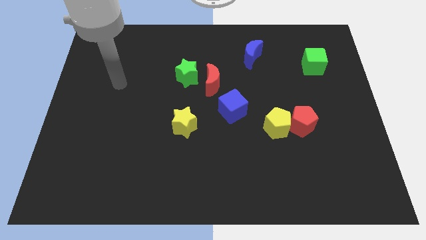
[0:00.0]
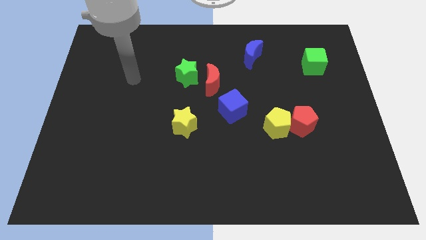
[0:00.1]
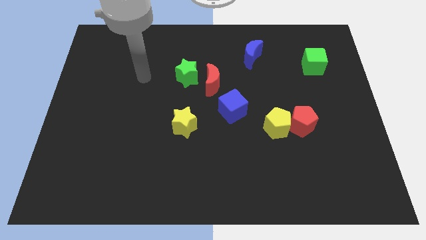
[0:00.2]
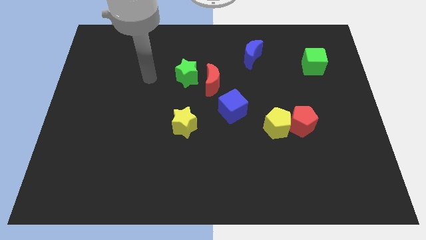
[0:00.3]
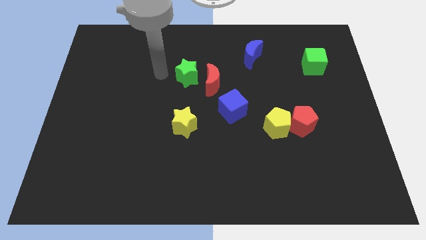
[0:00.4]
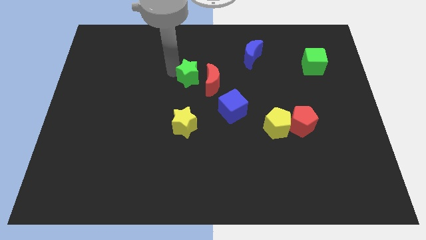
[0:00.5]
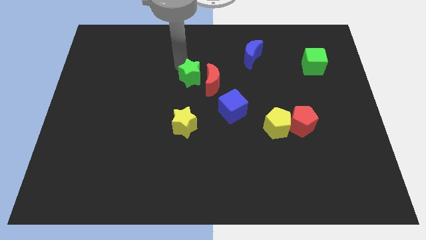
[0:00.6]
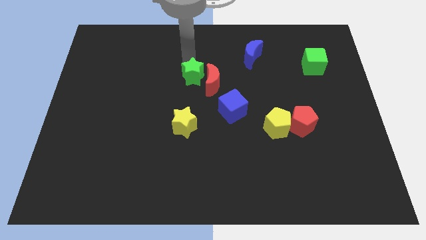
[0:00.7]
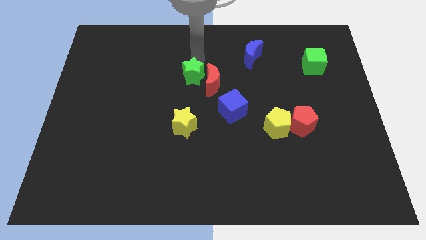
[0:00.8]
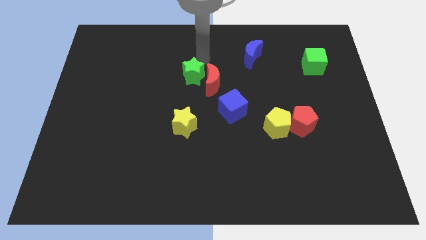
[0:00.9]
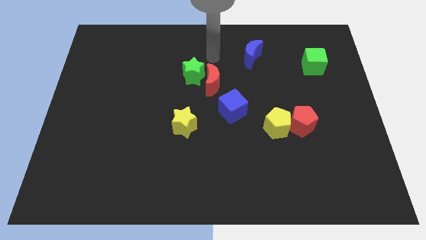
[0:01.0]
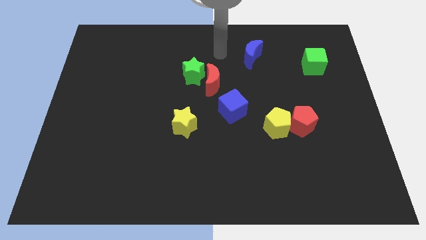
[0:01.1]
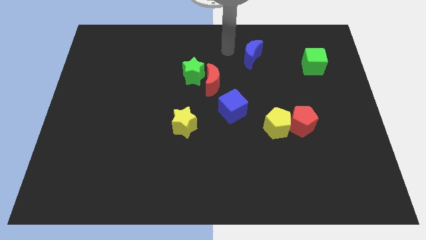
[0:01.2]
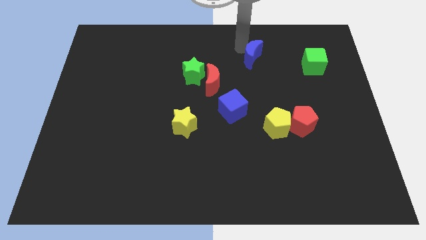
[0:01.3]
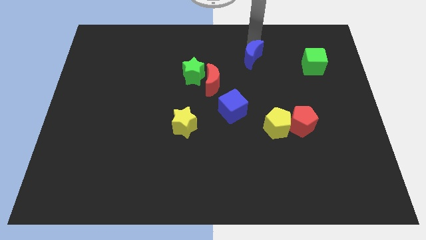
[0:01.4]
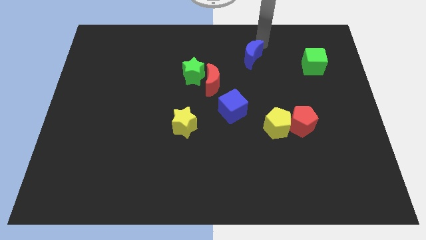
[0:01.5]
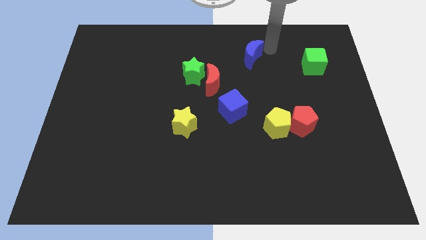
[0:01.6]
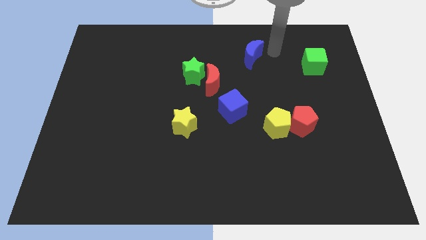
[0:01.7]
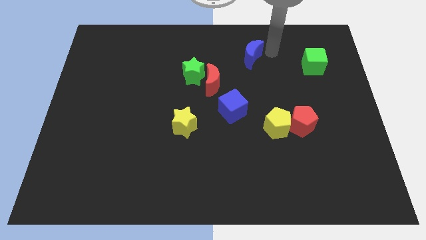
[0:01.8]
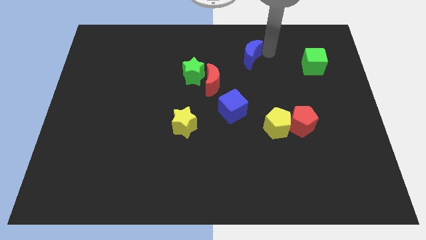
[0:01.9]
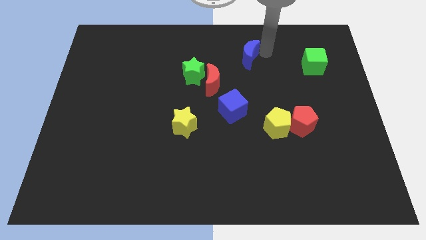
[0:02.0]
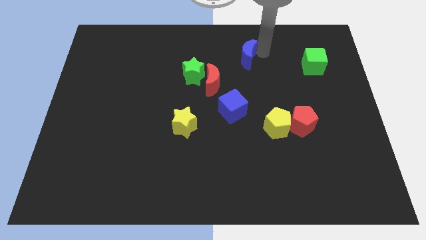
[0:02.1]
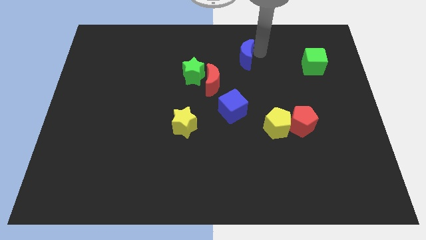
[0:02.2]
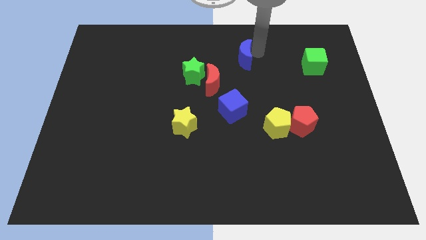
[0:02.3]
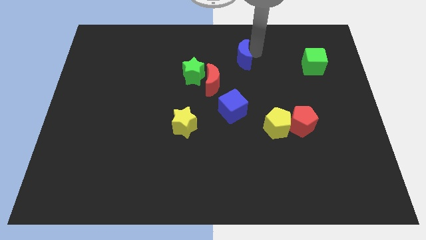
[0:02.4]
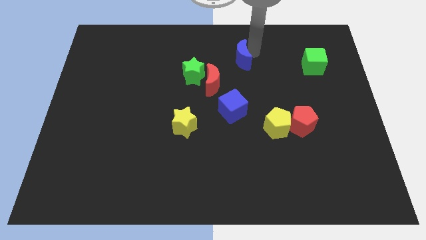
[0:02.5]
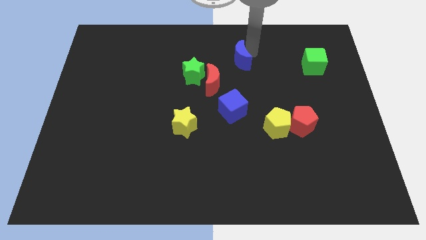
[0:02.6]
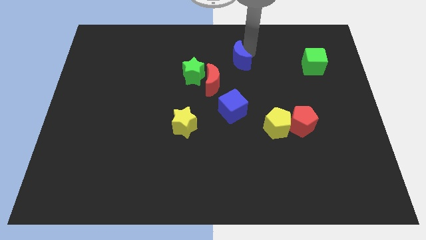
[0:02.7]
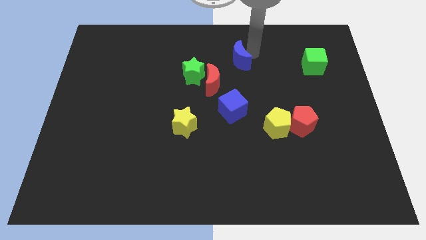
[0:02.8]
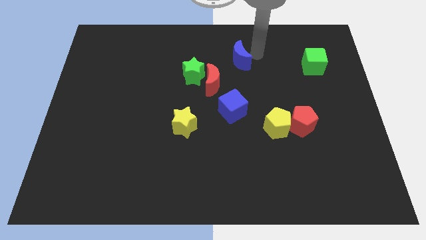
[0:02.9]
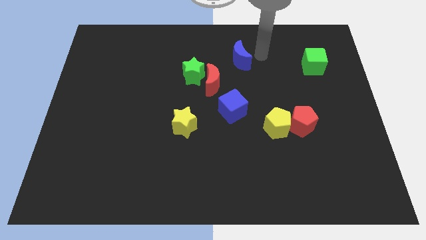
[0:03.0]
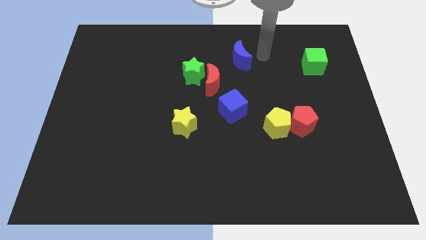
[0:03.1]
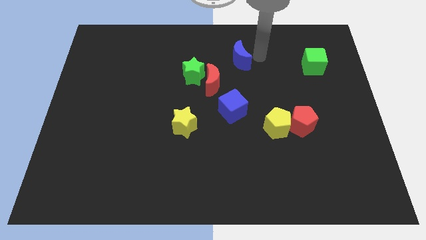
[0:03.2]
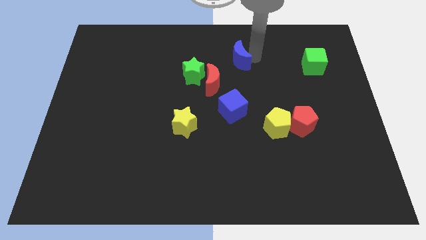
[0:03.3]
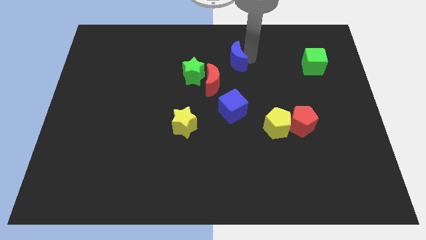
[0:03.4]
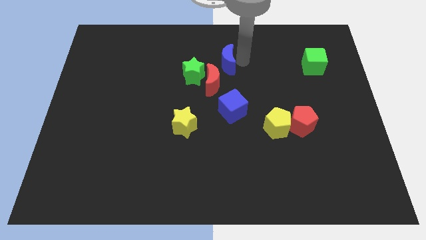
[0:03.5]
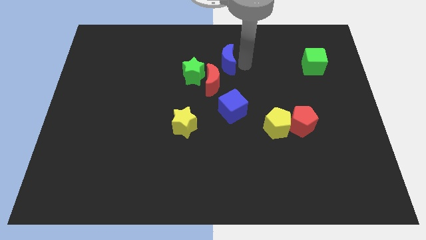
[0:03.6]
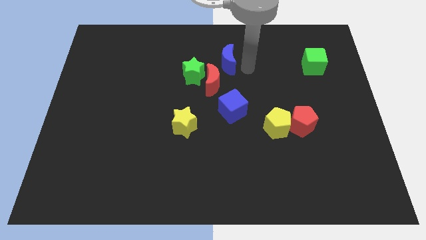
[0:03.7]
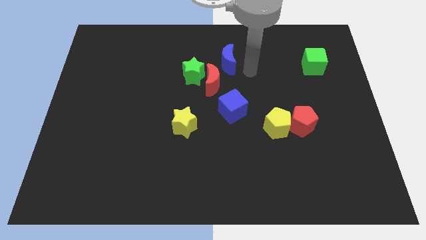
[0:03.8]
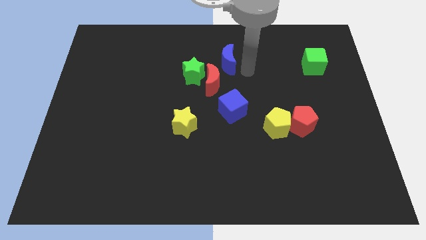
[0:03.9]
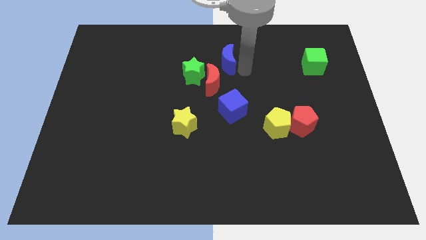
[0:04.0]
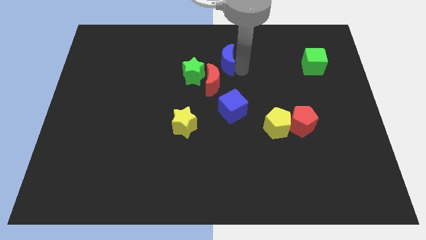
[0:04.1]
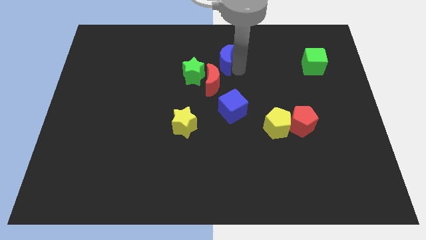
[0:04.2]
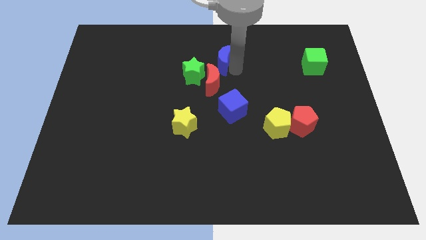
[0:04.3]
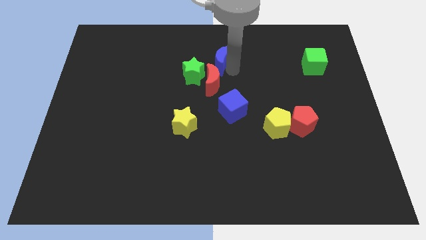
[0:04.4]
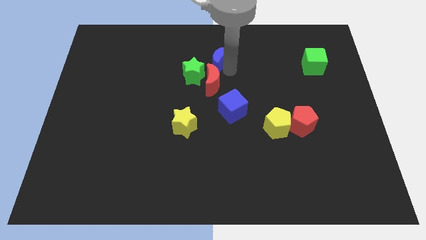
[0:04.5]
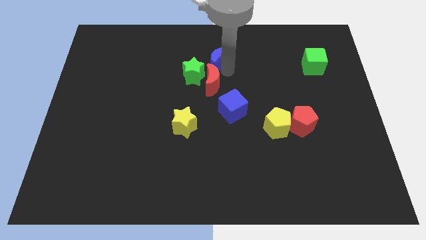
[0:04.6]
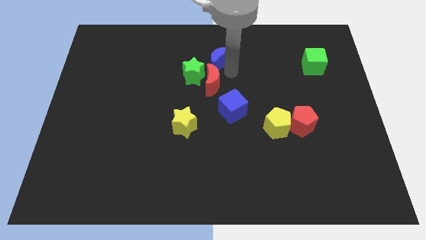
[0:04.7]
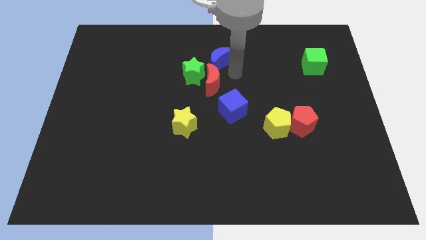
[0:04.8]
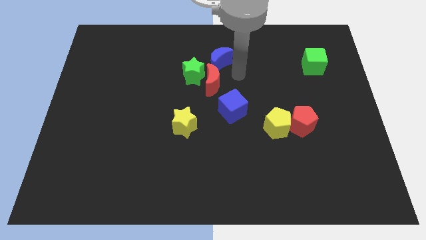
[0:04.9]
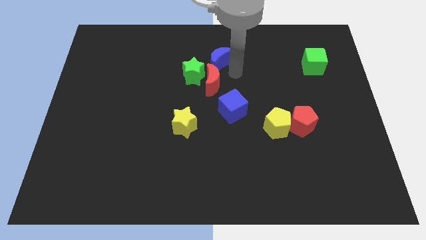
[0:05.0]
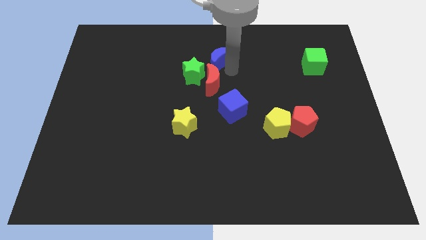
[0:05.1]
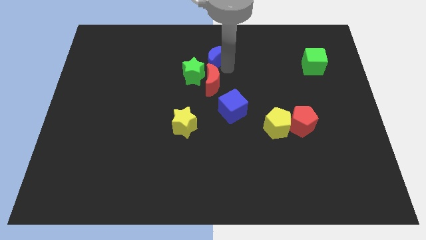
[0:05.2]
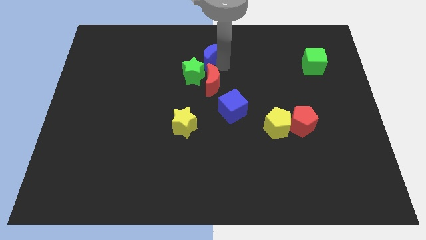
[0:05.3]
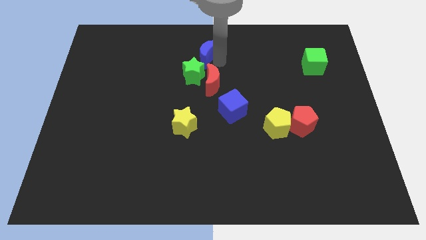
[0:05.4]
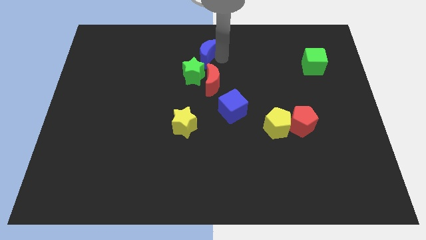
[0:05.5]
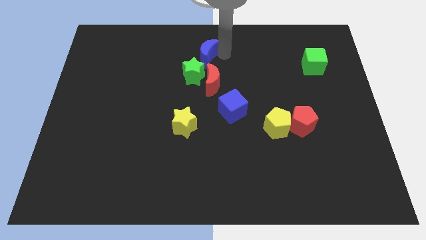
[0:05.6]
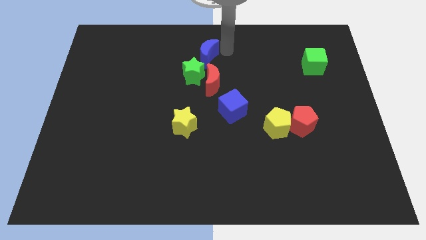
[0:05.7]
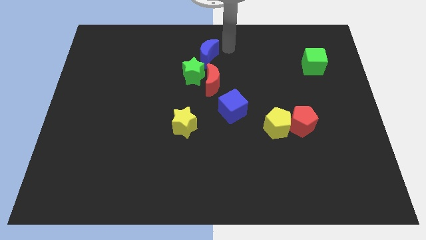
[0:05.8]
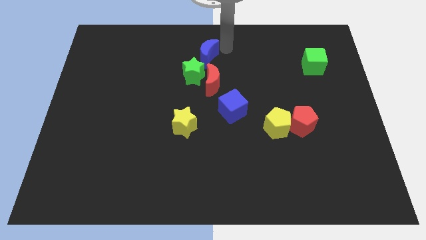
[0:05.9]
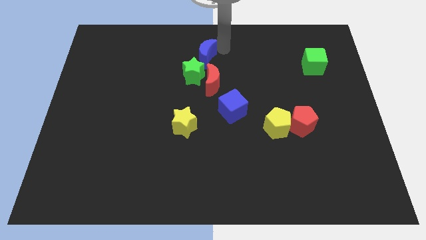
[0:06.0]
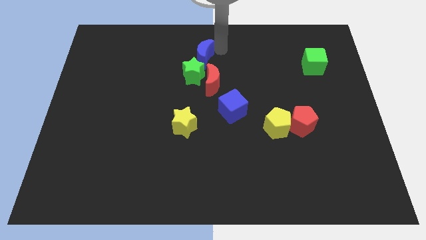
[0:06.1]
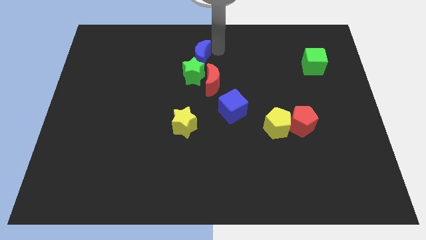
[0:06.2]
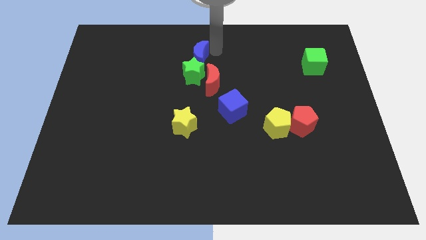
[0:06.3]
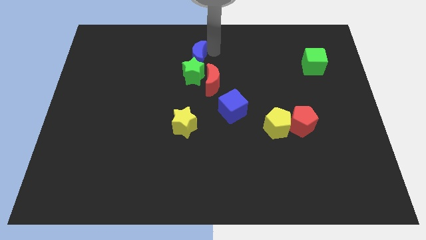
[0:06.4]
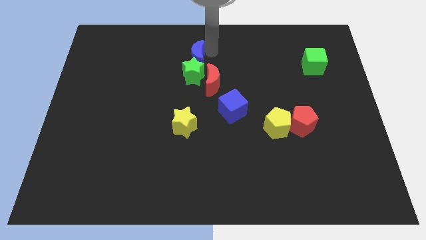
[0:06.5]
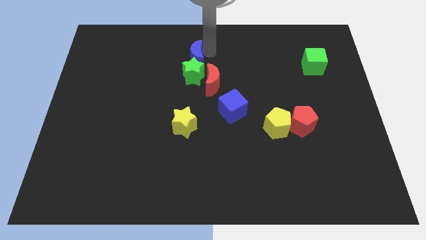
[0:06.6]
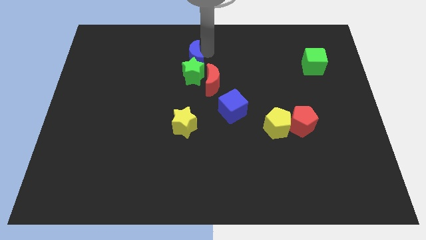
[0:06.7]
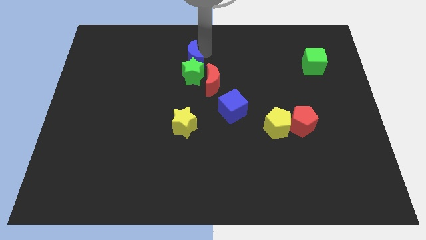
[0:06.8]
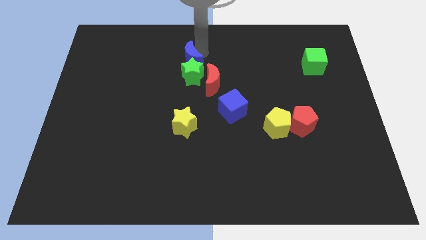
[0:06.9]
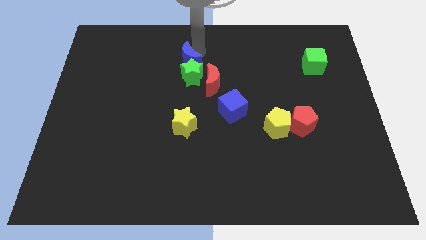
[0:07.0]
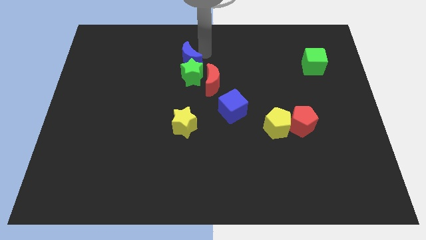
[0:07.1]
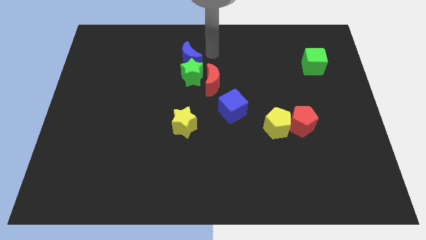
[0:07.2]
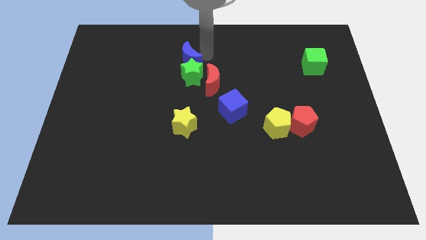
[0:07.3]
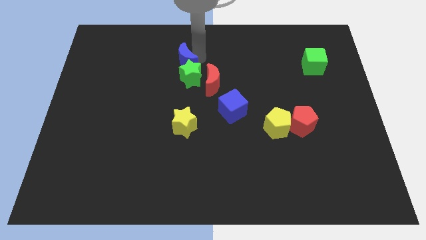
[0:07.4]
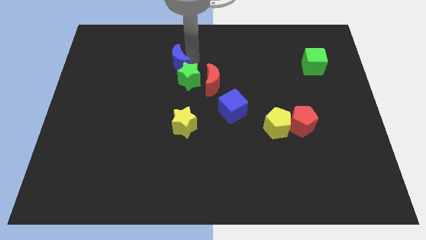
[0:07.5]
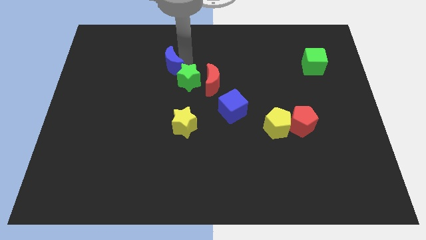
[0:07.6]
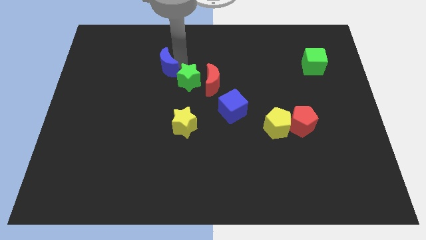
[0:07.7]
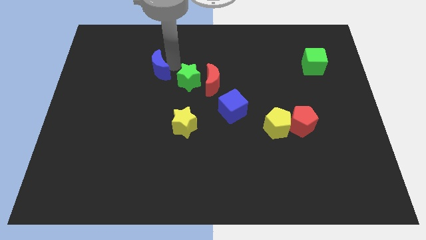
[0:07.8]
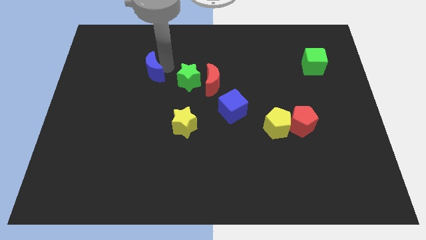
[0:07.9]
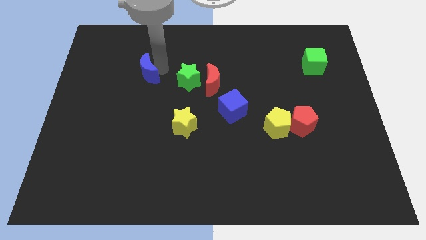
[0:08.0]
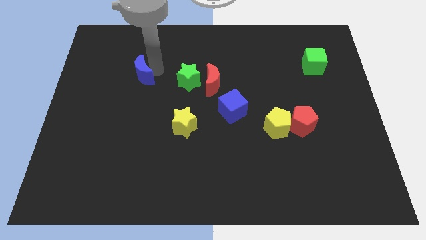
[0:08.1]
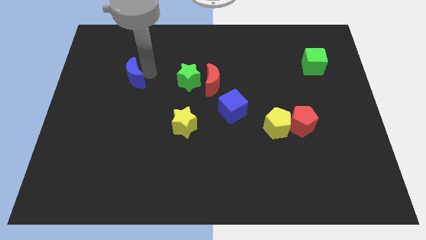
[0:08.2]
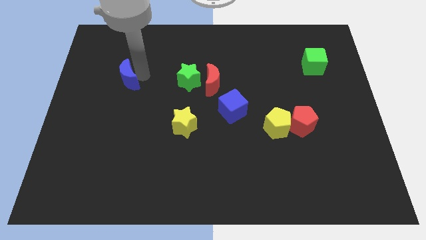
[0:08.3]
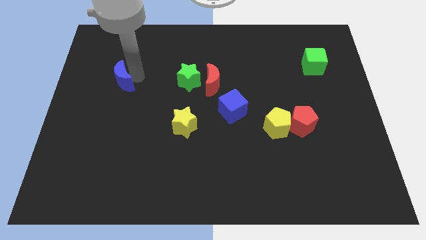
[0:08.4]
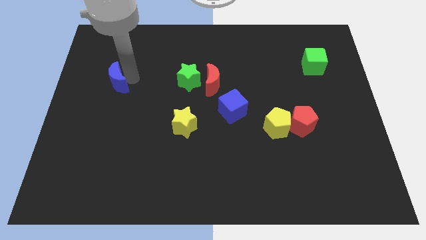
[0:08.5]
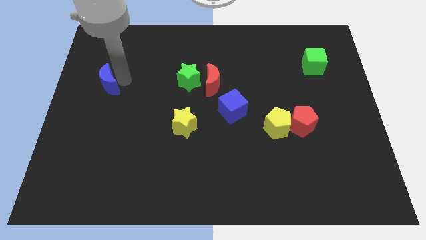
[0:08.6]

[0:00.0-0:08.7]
move the blue moon to the center left
